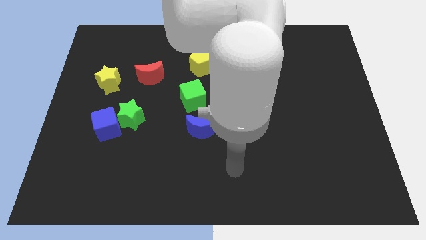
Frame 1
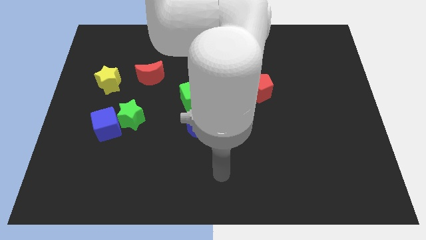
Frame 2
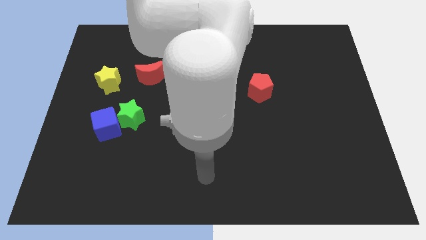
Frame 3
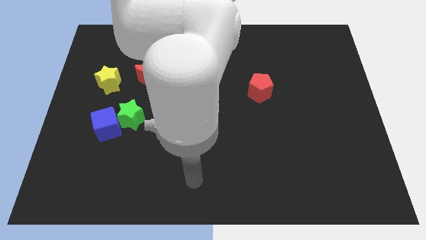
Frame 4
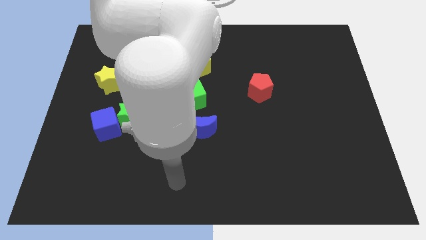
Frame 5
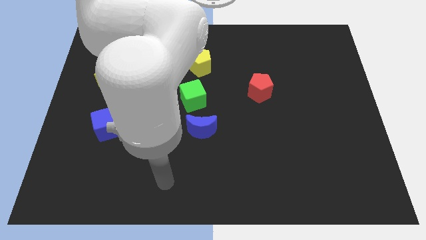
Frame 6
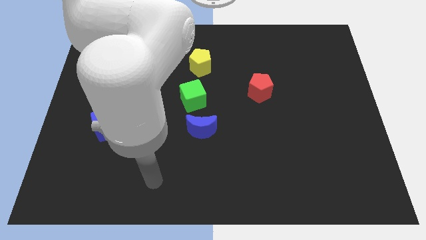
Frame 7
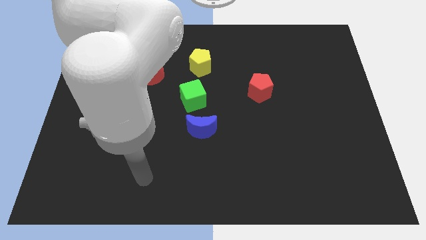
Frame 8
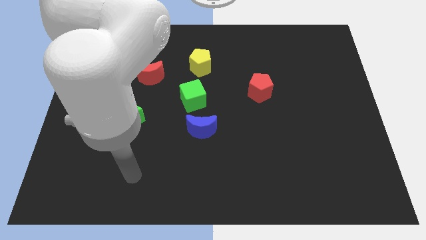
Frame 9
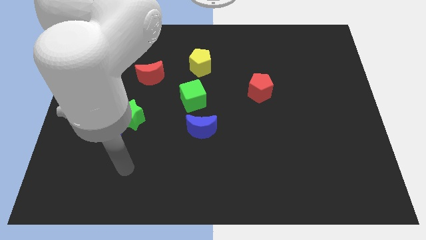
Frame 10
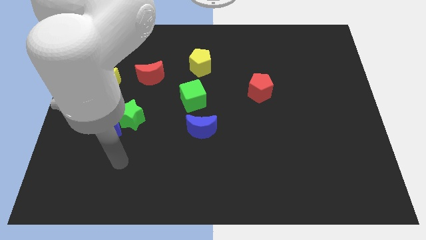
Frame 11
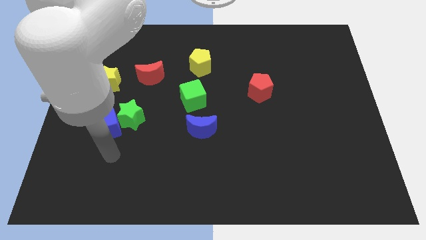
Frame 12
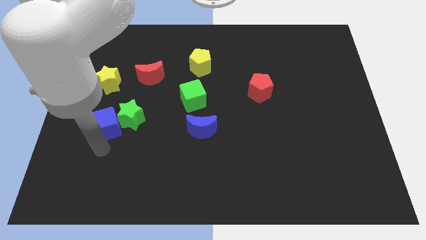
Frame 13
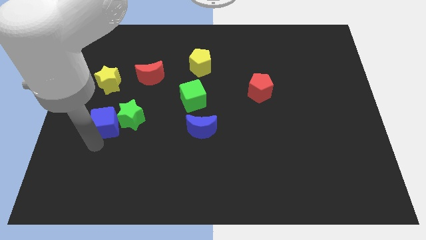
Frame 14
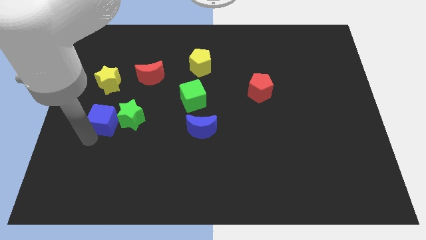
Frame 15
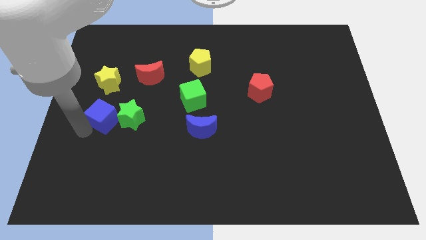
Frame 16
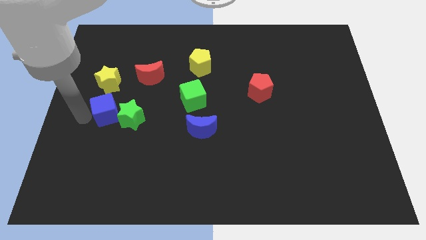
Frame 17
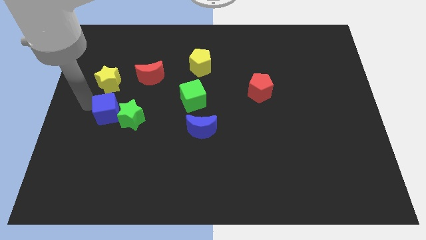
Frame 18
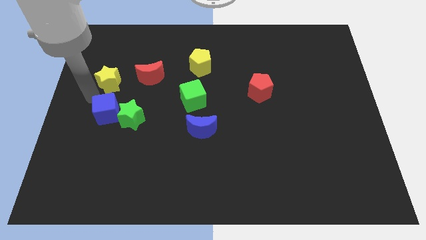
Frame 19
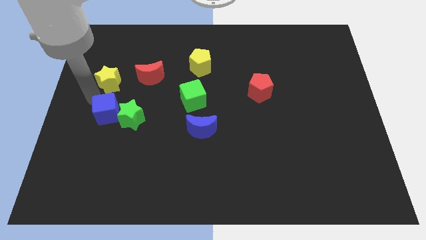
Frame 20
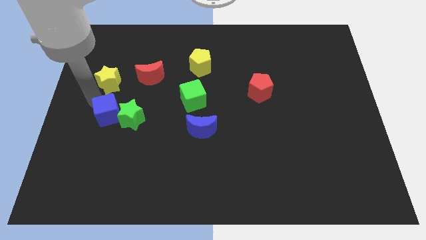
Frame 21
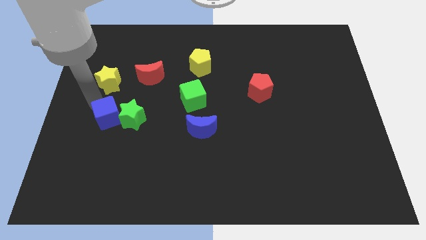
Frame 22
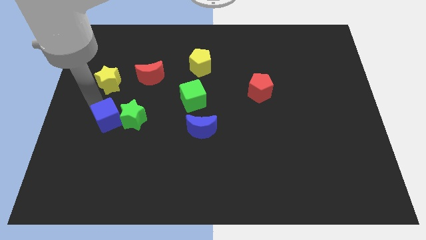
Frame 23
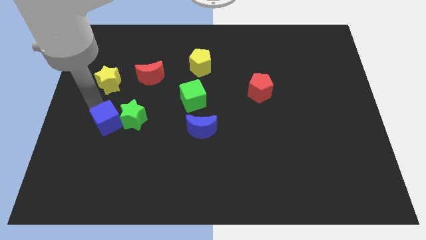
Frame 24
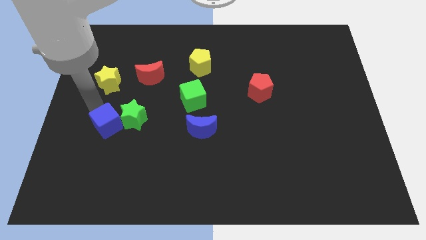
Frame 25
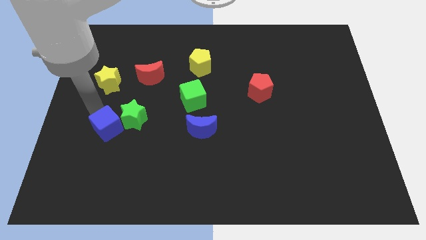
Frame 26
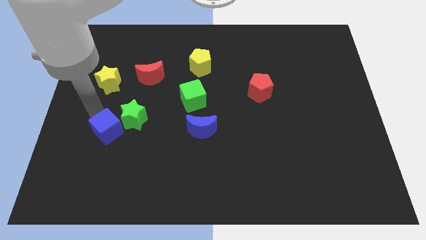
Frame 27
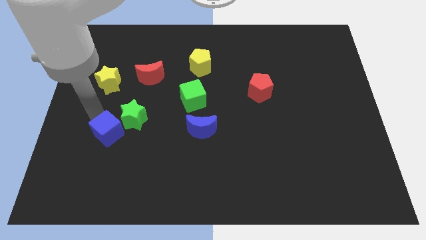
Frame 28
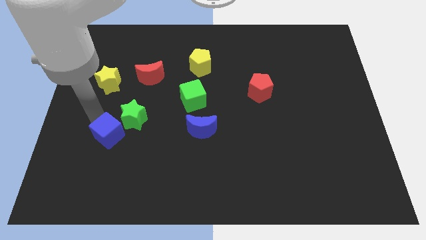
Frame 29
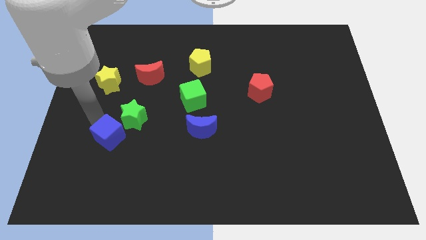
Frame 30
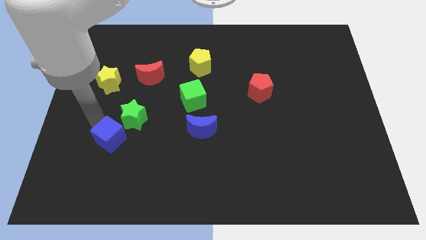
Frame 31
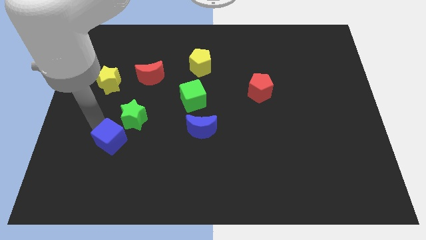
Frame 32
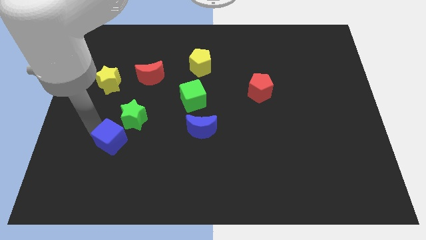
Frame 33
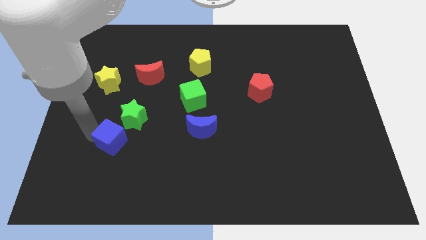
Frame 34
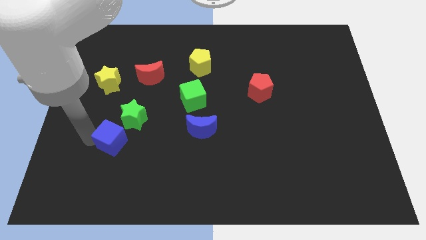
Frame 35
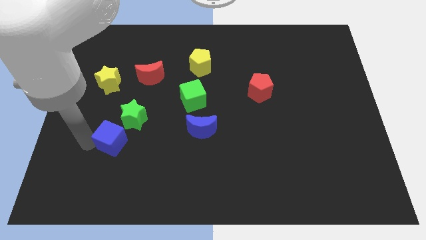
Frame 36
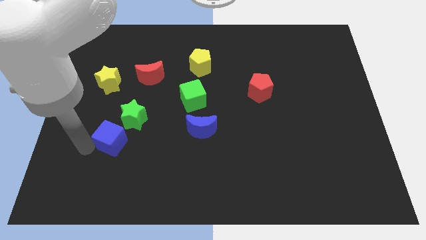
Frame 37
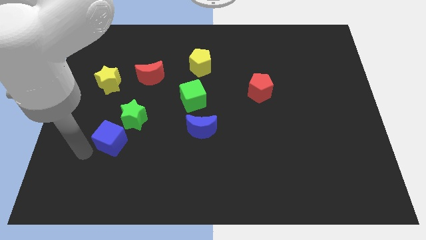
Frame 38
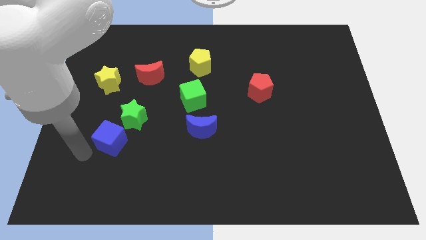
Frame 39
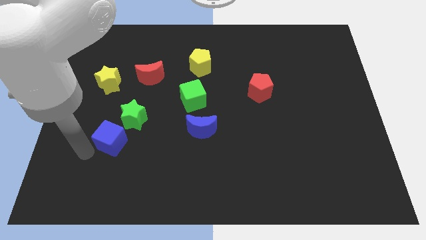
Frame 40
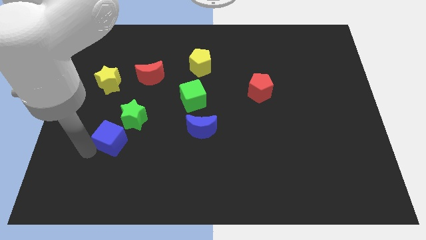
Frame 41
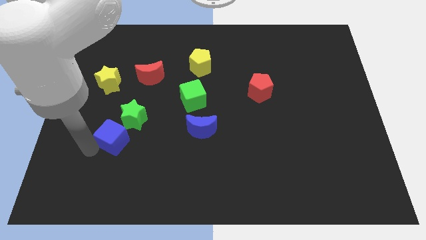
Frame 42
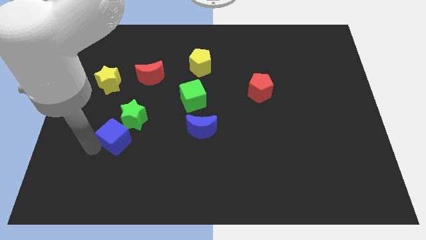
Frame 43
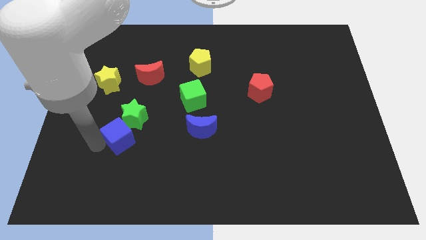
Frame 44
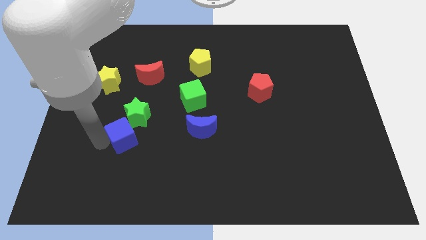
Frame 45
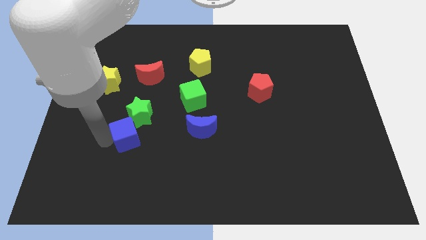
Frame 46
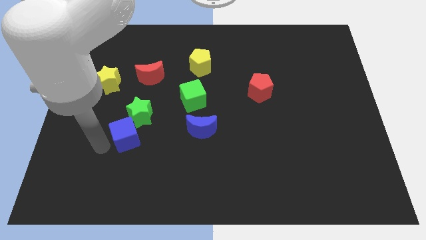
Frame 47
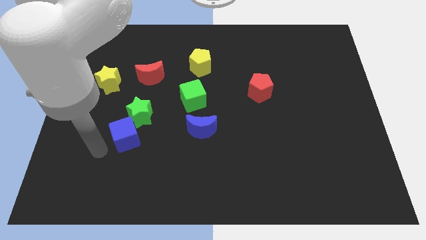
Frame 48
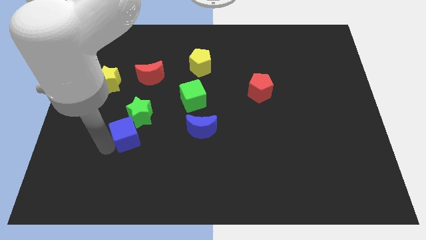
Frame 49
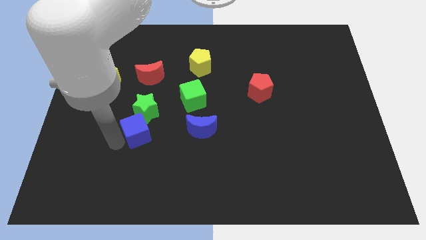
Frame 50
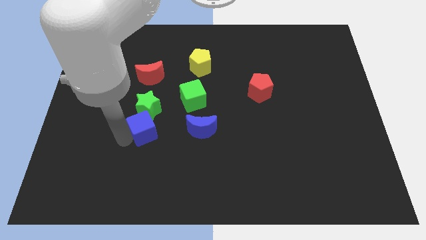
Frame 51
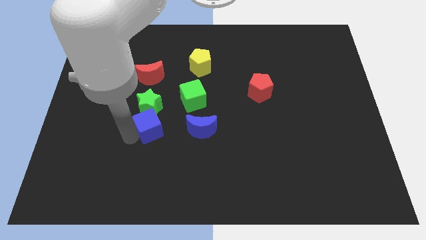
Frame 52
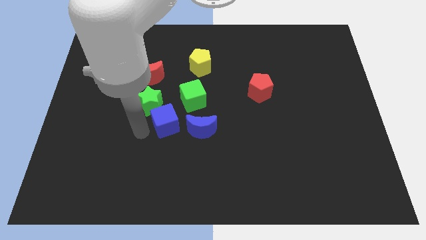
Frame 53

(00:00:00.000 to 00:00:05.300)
slide the blue cube to the middle

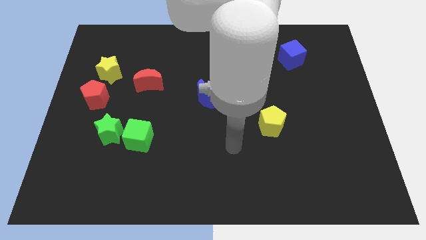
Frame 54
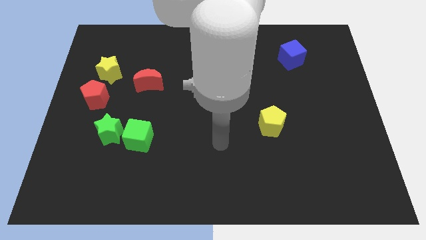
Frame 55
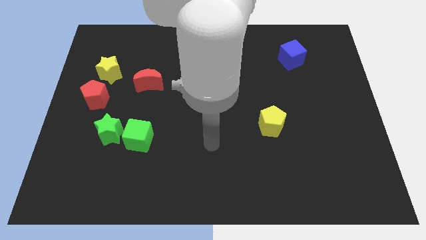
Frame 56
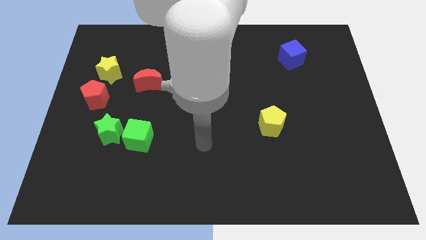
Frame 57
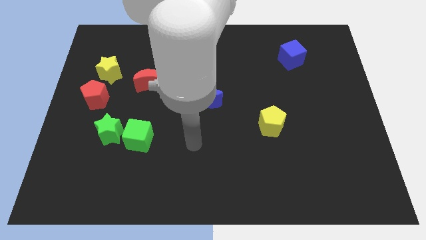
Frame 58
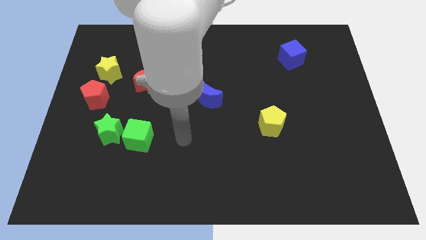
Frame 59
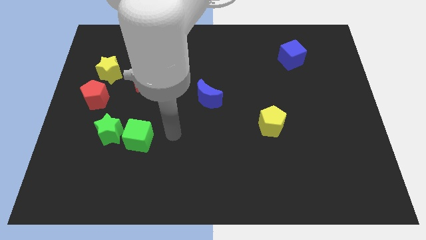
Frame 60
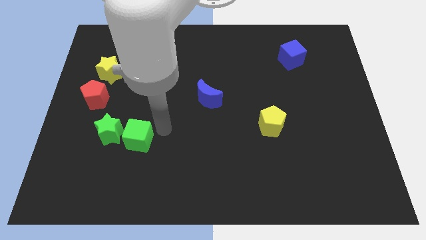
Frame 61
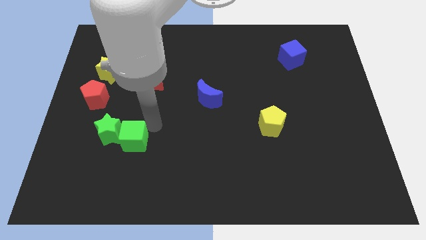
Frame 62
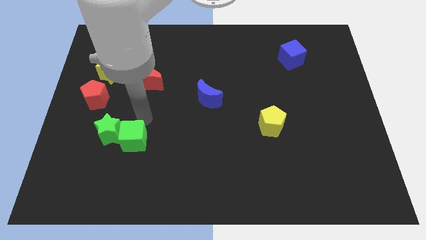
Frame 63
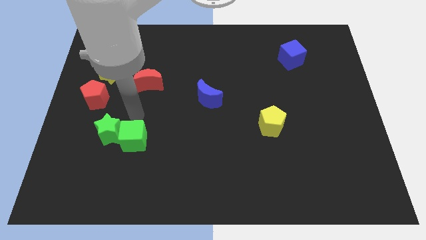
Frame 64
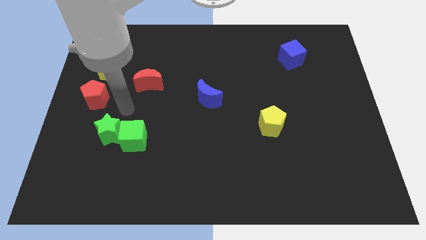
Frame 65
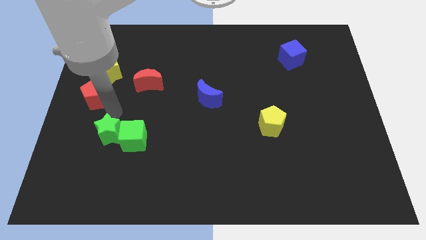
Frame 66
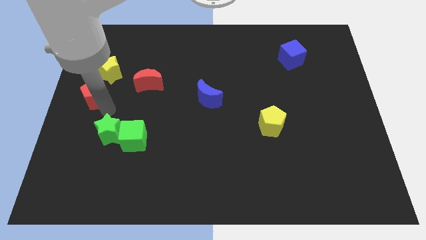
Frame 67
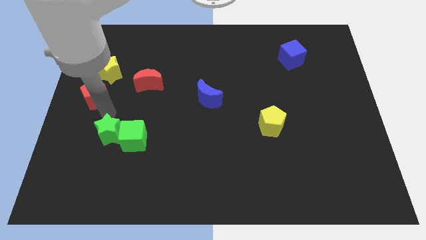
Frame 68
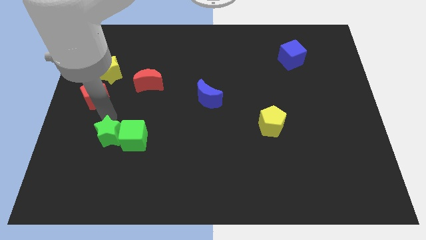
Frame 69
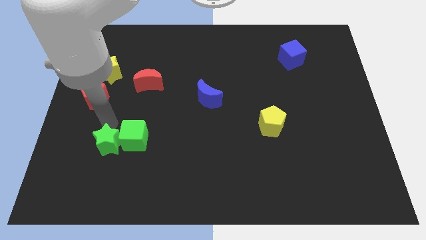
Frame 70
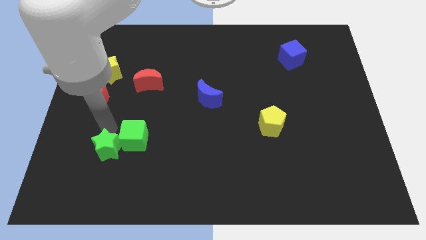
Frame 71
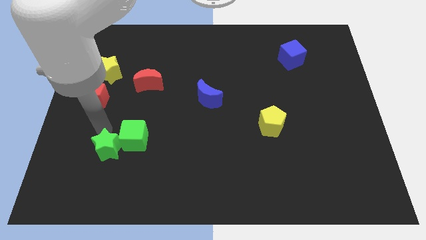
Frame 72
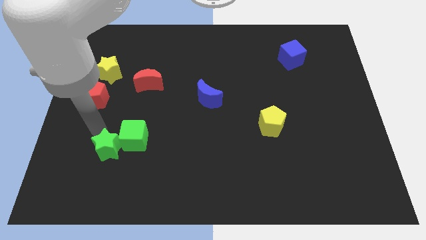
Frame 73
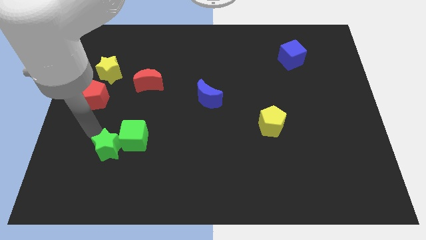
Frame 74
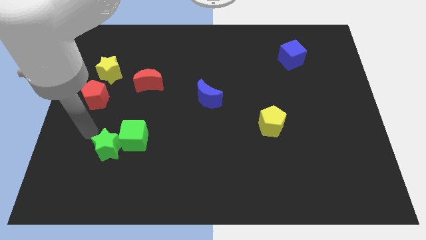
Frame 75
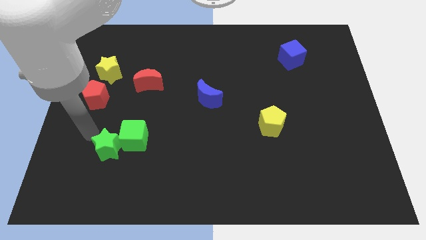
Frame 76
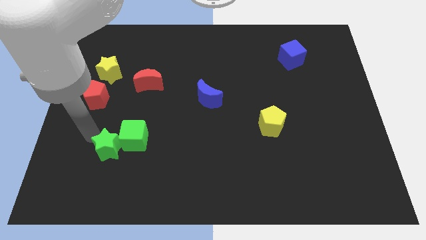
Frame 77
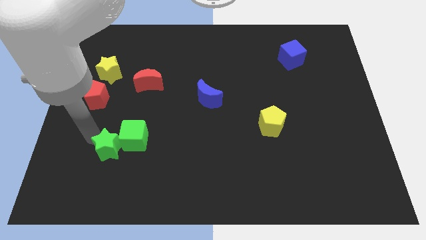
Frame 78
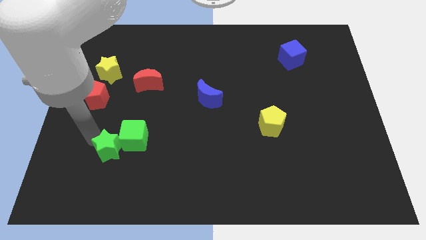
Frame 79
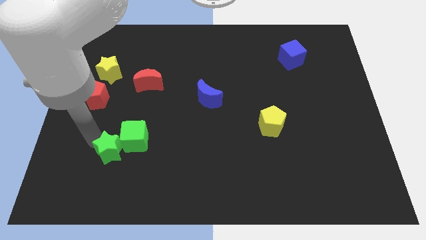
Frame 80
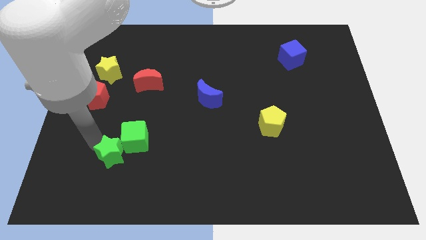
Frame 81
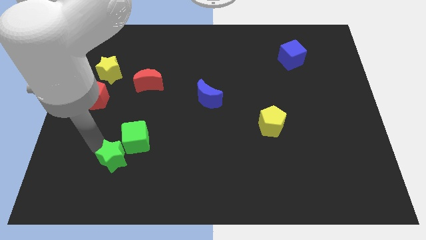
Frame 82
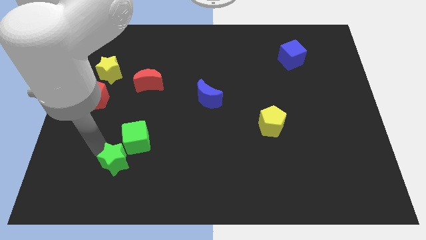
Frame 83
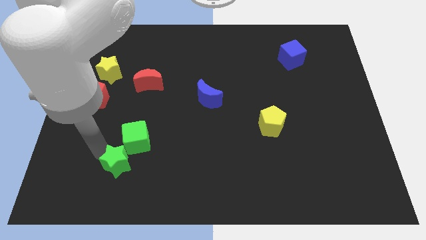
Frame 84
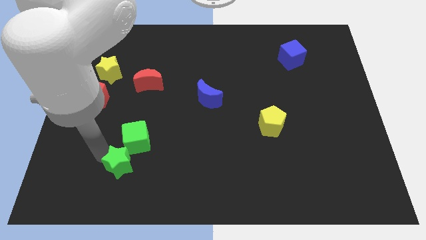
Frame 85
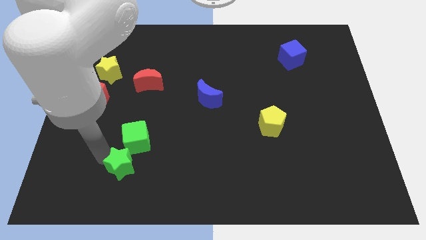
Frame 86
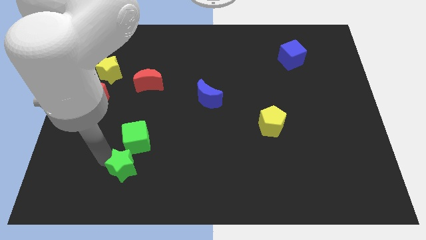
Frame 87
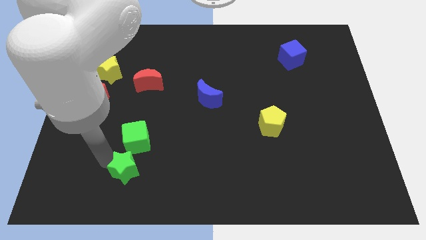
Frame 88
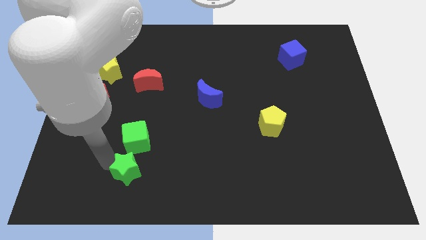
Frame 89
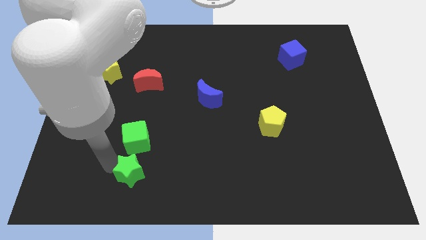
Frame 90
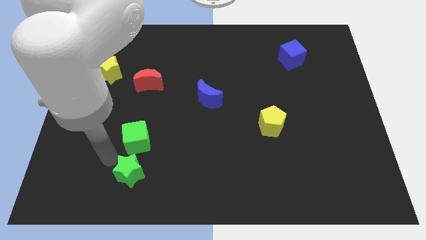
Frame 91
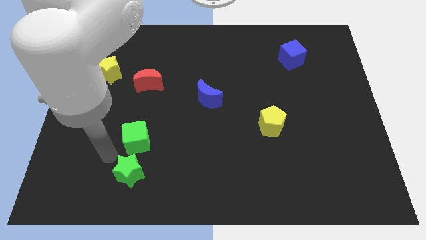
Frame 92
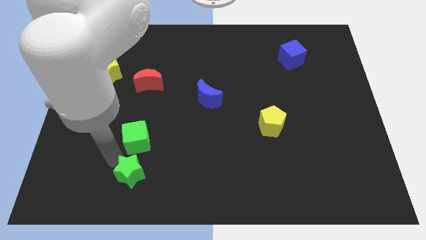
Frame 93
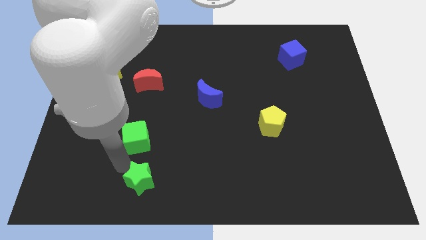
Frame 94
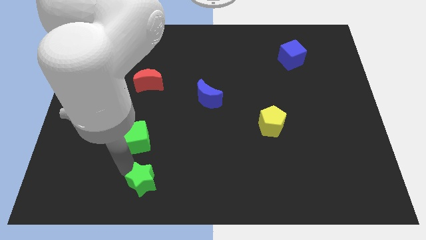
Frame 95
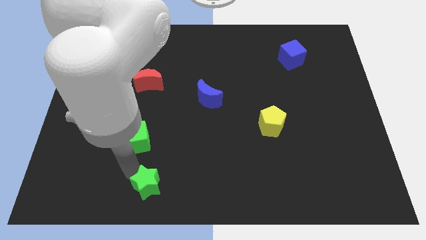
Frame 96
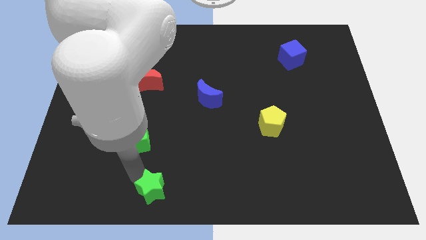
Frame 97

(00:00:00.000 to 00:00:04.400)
push the green star to the bottom
